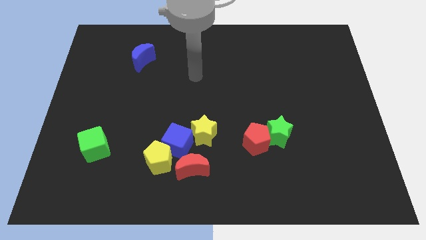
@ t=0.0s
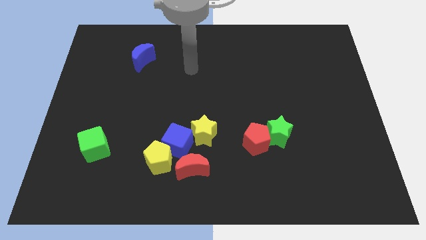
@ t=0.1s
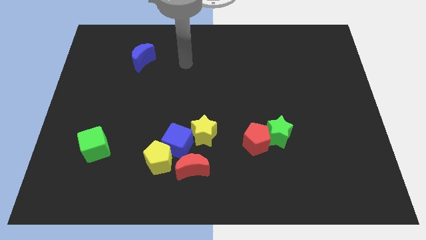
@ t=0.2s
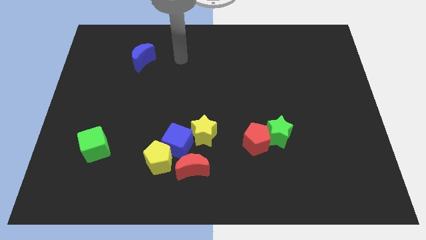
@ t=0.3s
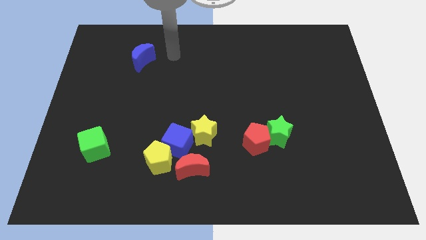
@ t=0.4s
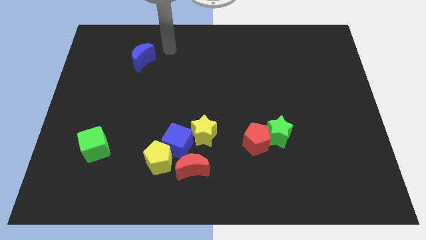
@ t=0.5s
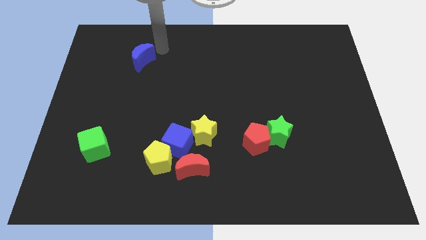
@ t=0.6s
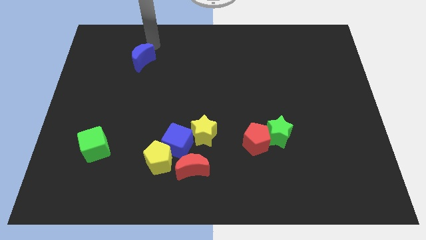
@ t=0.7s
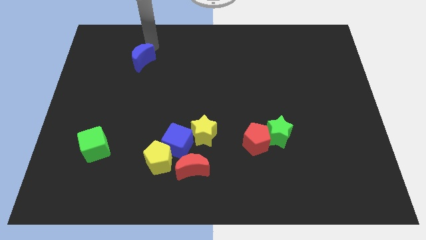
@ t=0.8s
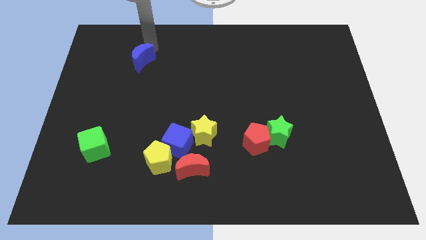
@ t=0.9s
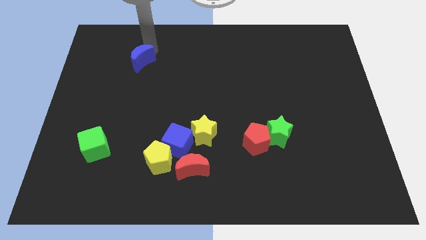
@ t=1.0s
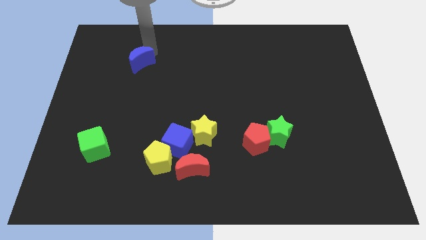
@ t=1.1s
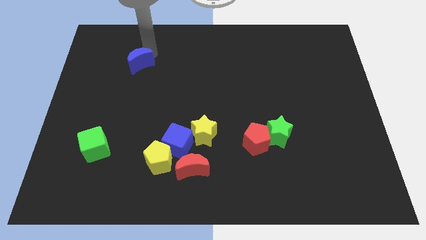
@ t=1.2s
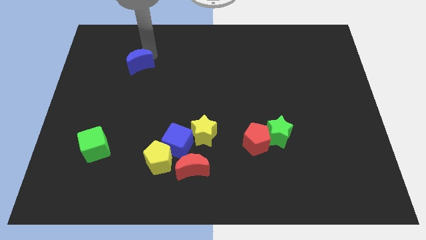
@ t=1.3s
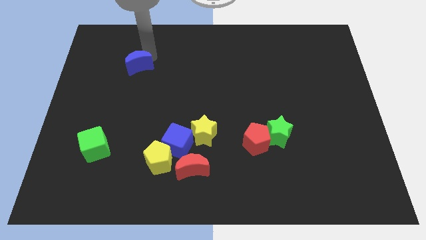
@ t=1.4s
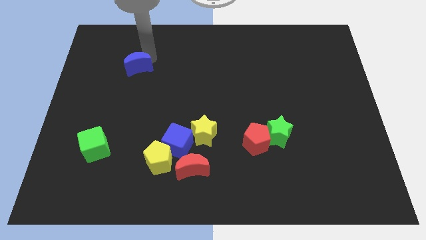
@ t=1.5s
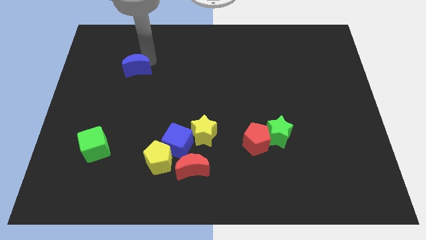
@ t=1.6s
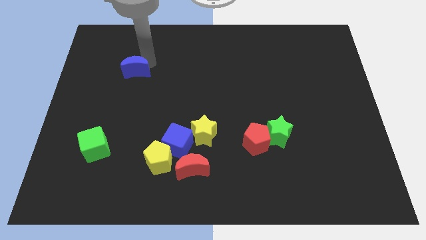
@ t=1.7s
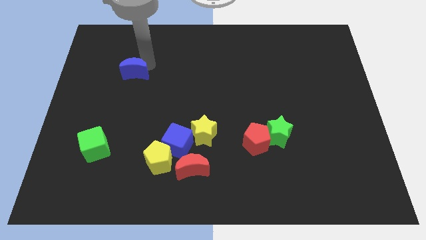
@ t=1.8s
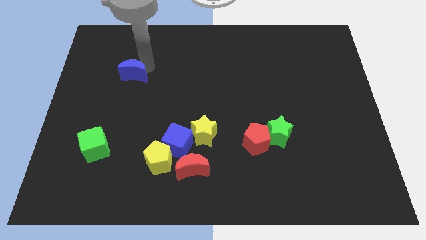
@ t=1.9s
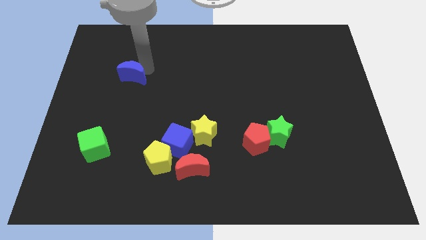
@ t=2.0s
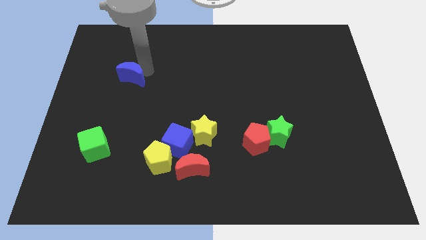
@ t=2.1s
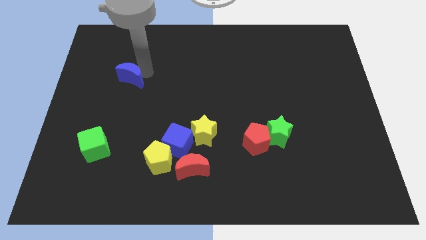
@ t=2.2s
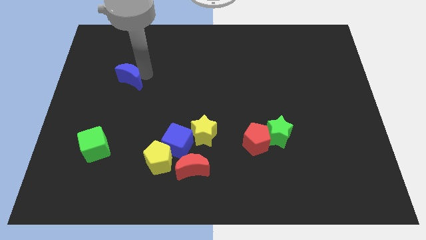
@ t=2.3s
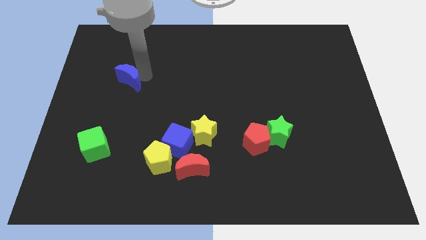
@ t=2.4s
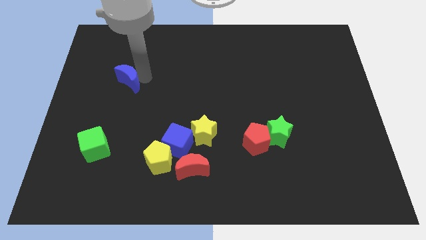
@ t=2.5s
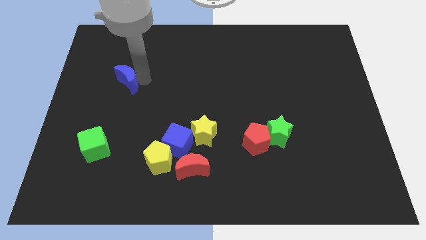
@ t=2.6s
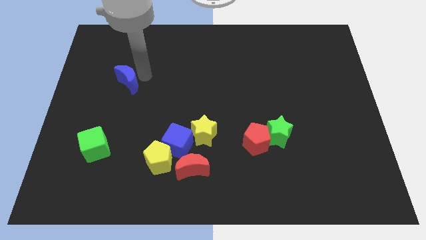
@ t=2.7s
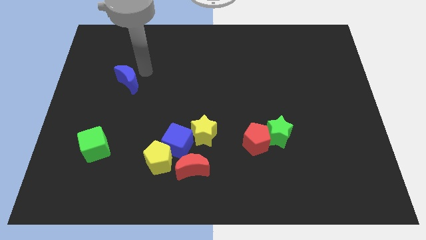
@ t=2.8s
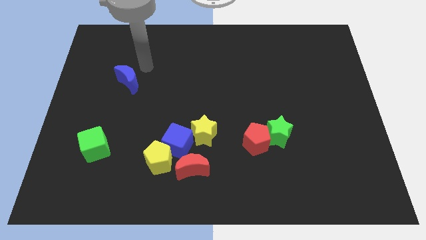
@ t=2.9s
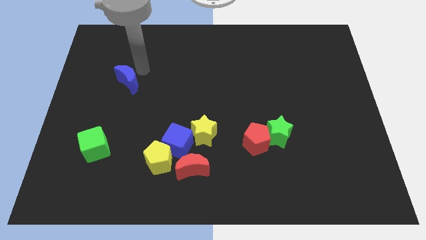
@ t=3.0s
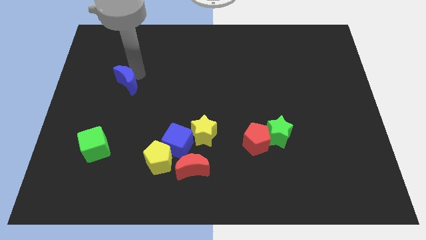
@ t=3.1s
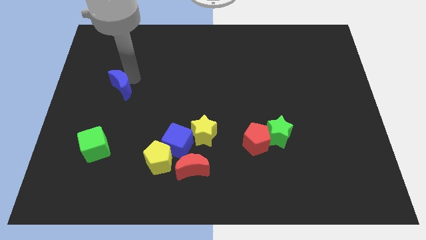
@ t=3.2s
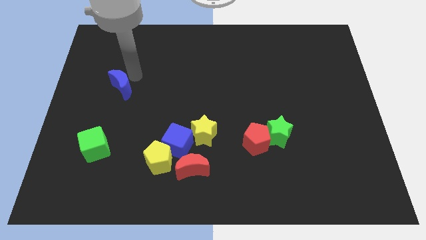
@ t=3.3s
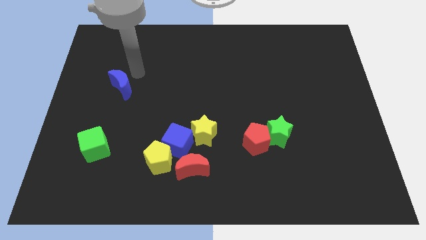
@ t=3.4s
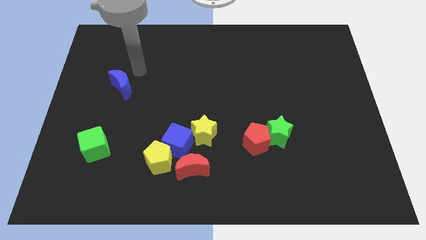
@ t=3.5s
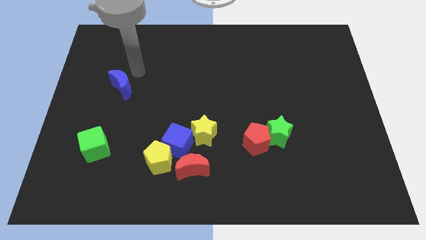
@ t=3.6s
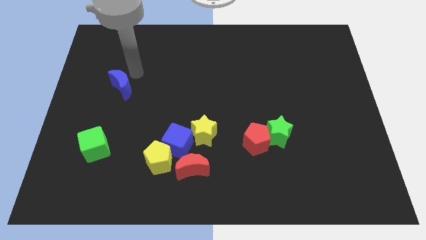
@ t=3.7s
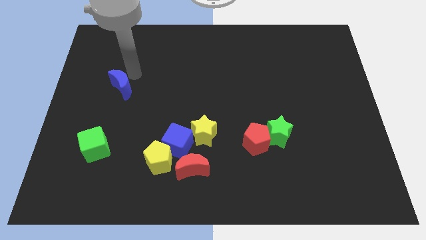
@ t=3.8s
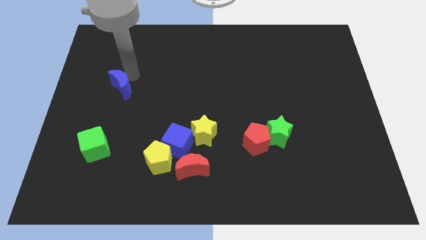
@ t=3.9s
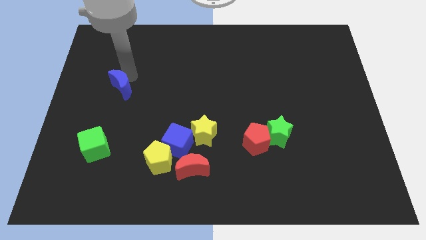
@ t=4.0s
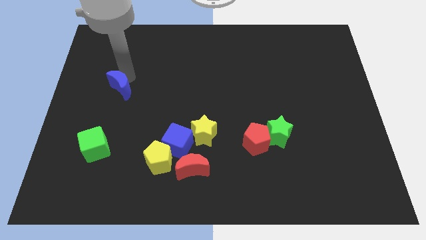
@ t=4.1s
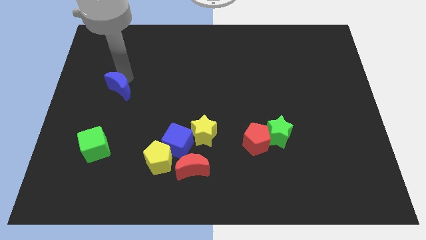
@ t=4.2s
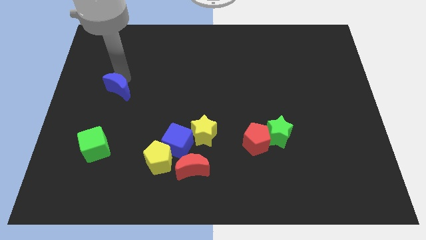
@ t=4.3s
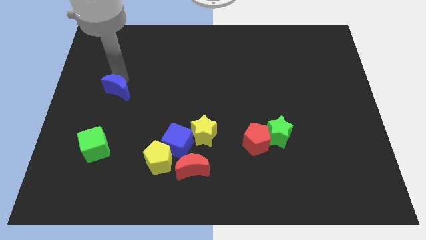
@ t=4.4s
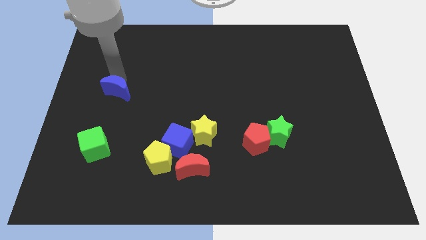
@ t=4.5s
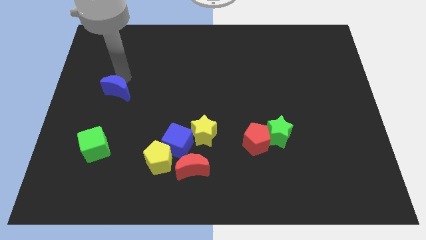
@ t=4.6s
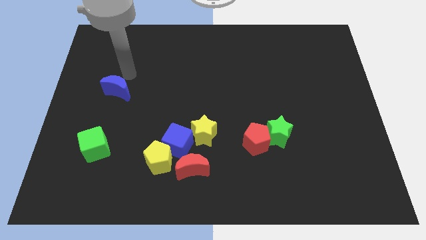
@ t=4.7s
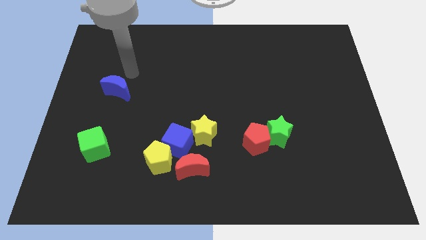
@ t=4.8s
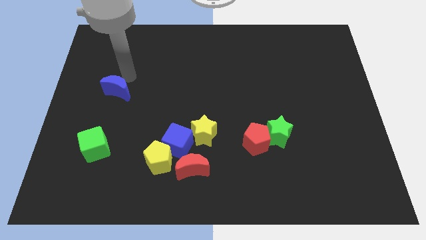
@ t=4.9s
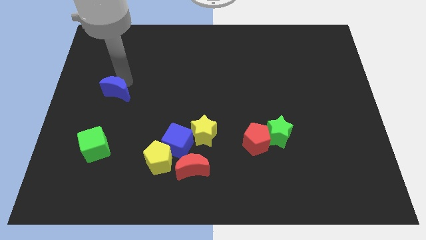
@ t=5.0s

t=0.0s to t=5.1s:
put the blue moon to the top side of the green cube

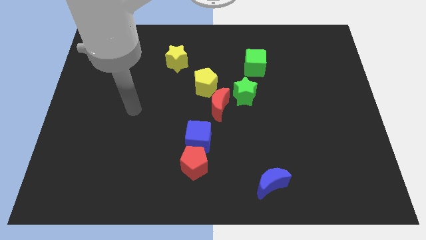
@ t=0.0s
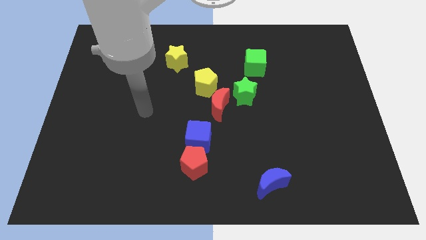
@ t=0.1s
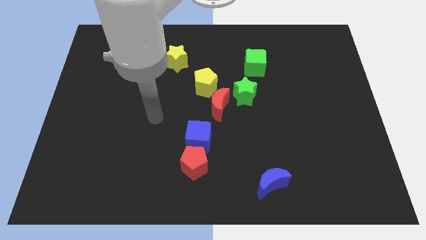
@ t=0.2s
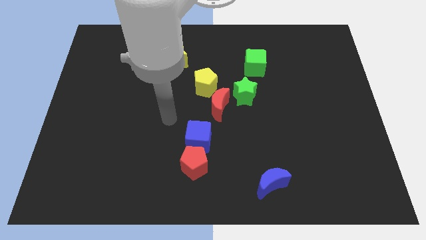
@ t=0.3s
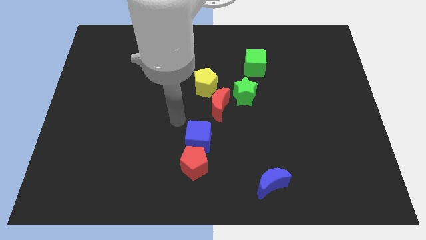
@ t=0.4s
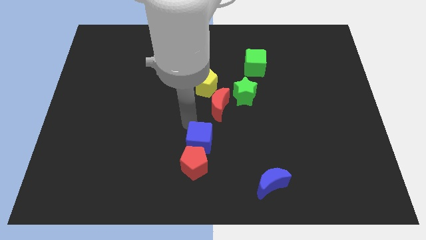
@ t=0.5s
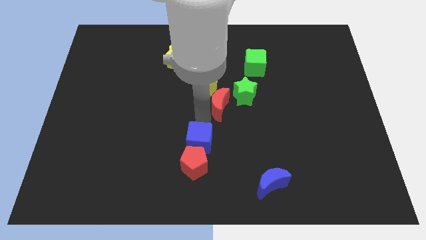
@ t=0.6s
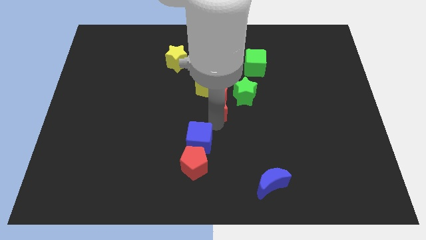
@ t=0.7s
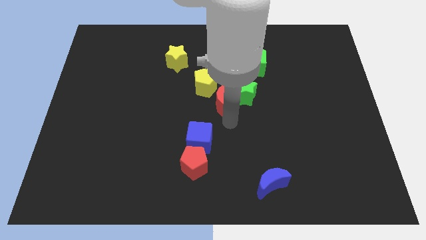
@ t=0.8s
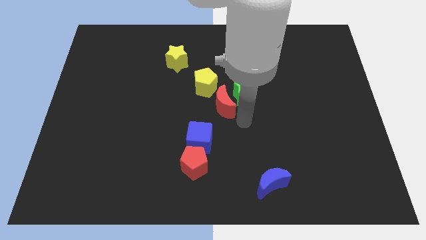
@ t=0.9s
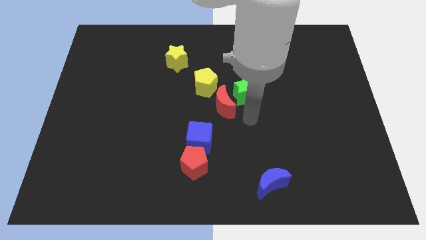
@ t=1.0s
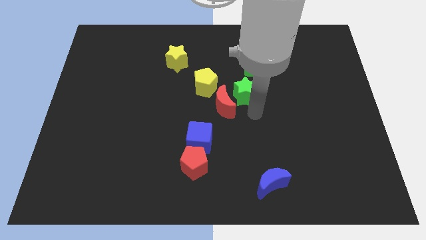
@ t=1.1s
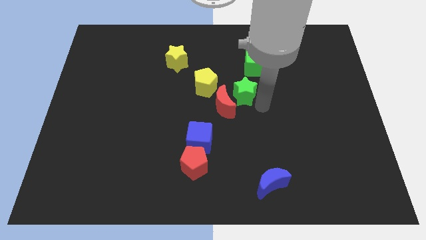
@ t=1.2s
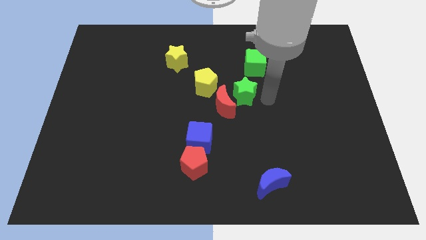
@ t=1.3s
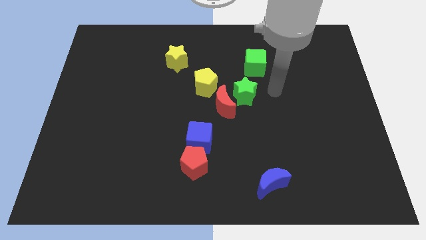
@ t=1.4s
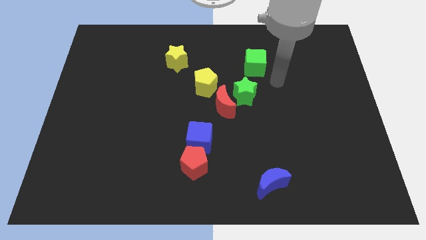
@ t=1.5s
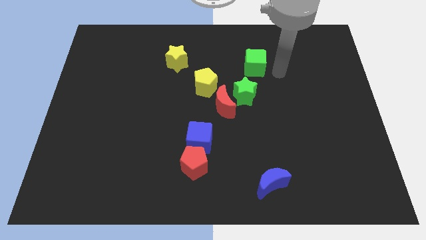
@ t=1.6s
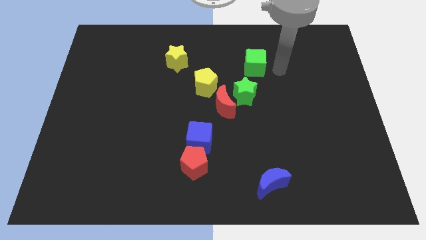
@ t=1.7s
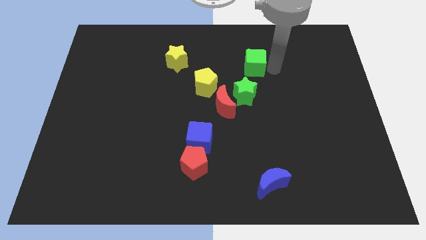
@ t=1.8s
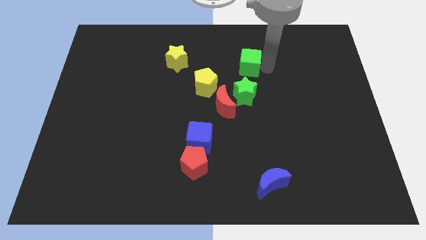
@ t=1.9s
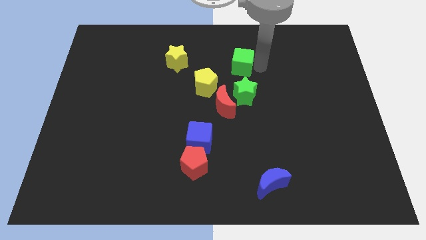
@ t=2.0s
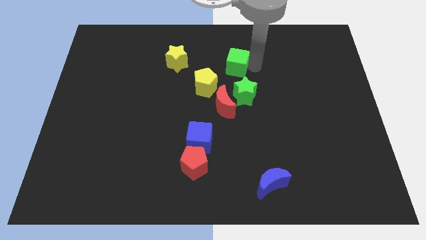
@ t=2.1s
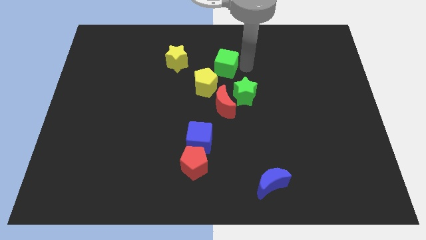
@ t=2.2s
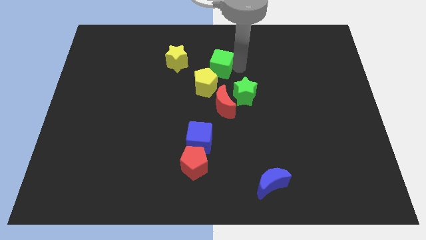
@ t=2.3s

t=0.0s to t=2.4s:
slide the green cube to the top of the yellow pentagon

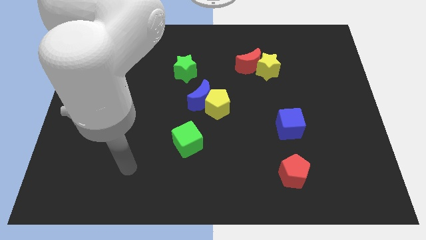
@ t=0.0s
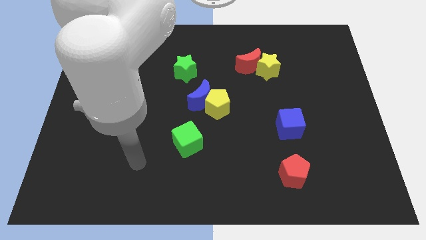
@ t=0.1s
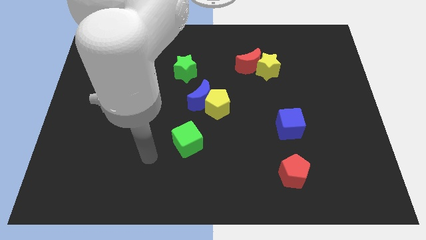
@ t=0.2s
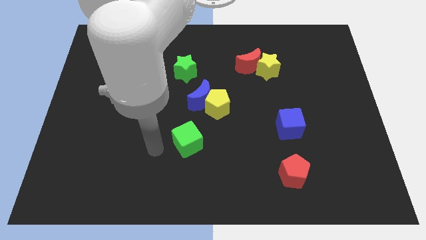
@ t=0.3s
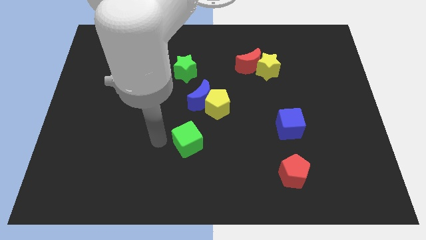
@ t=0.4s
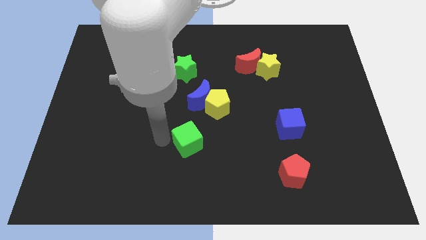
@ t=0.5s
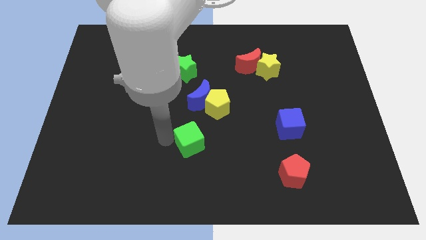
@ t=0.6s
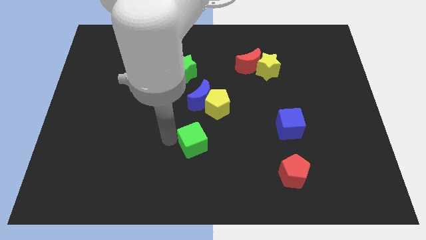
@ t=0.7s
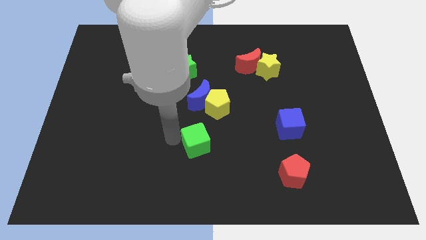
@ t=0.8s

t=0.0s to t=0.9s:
move the green cube to the bottom of the yellow pentagon
